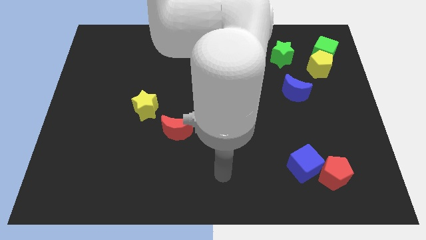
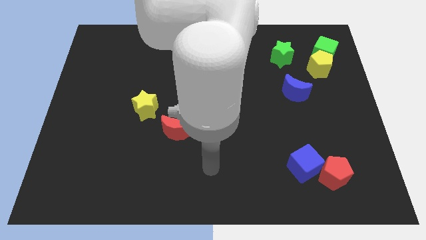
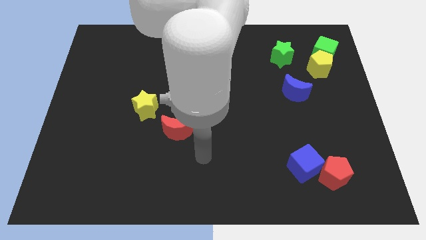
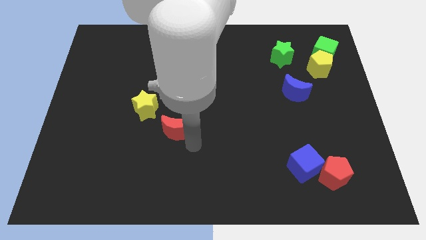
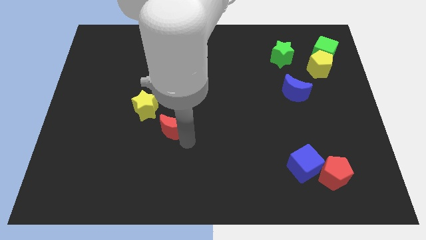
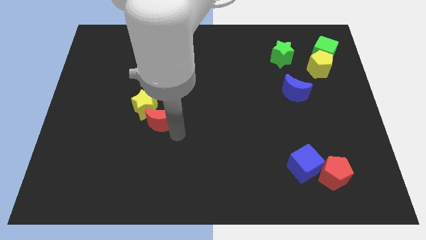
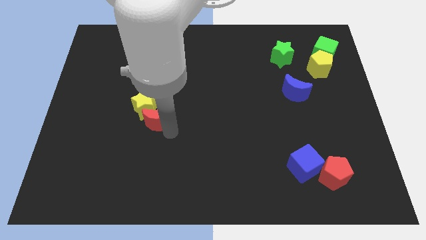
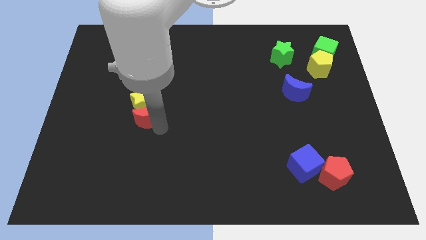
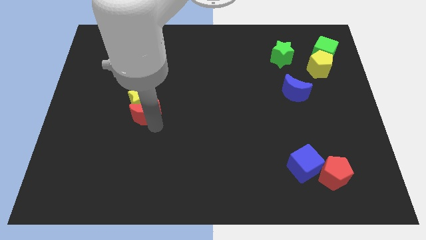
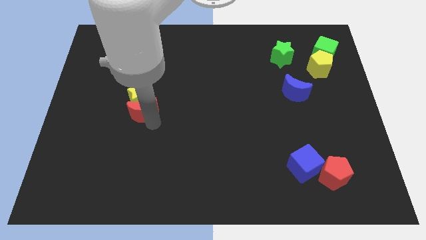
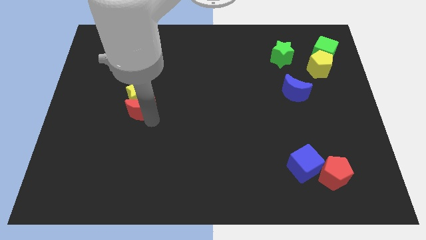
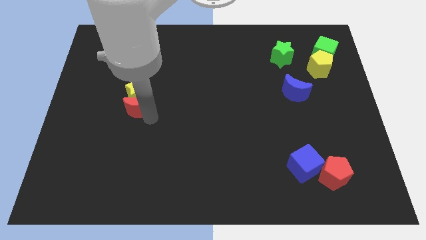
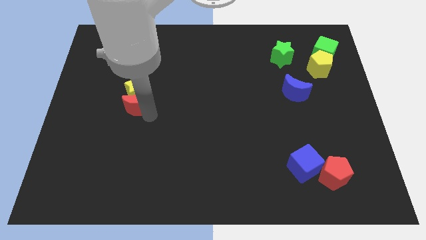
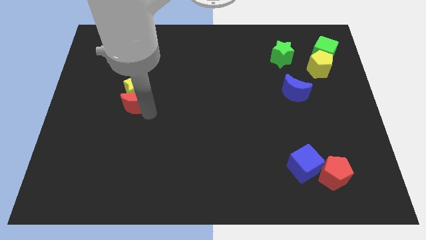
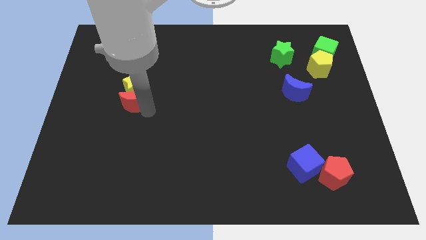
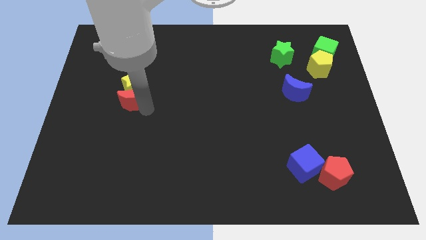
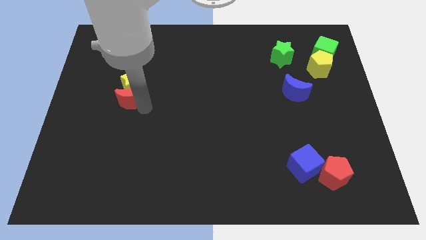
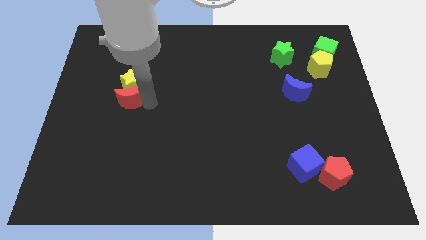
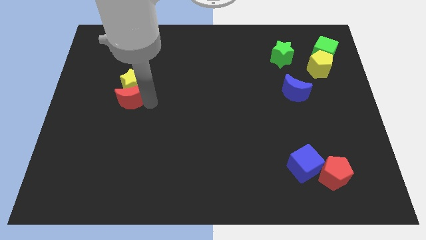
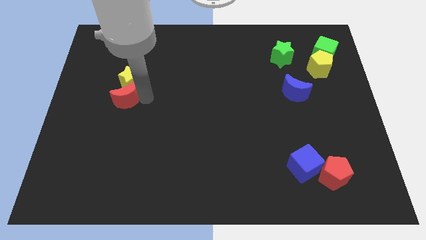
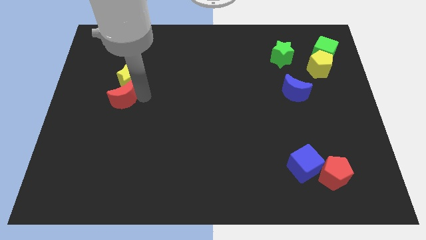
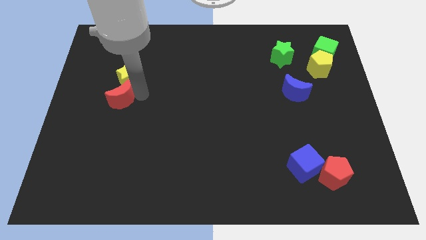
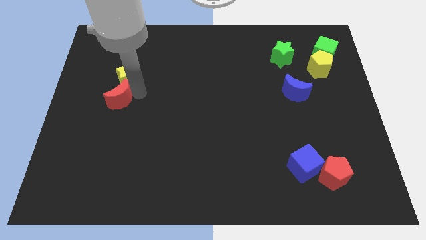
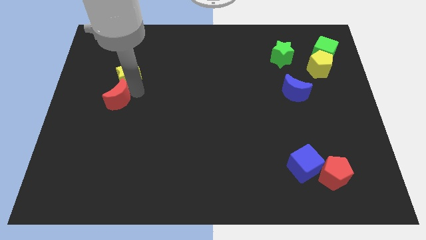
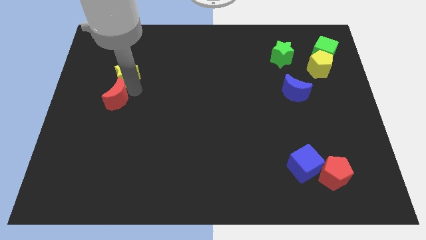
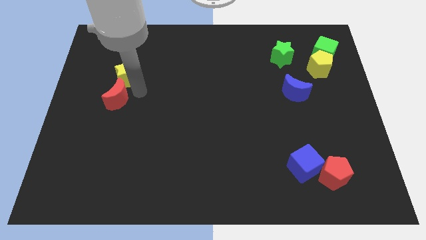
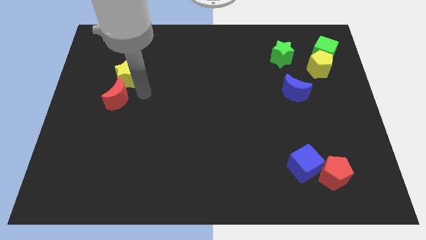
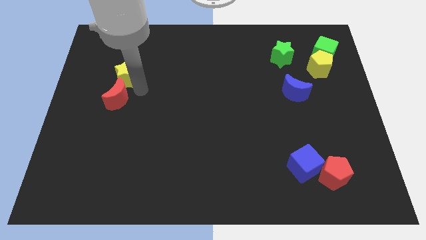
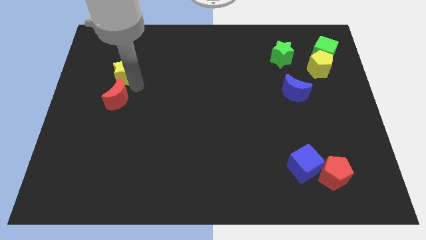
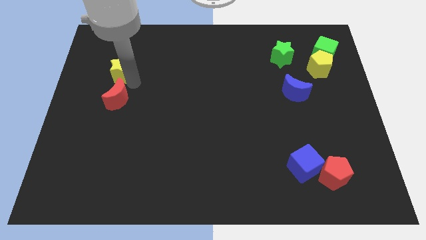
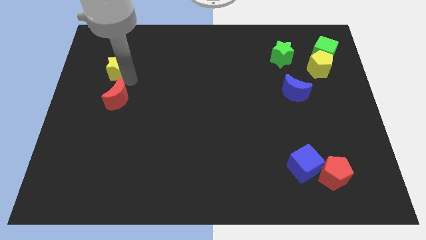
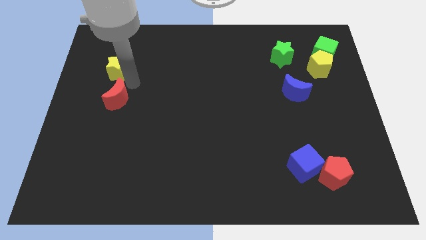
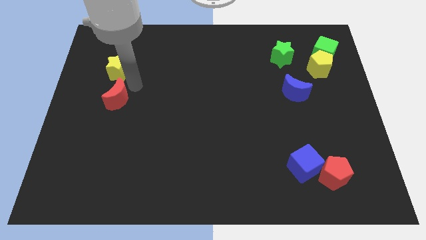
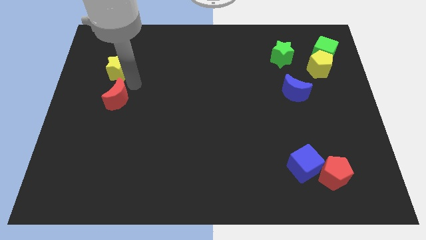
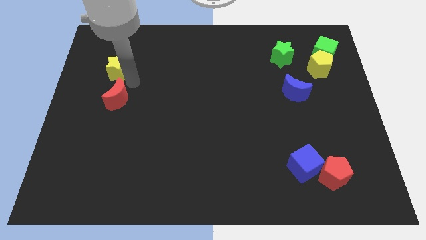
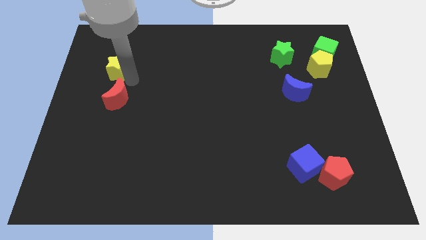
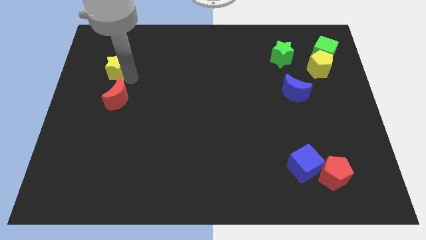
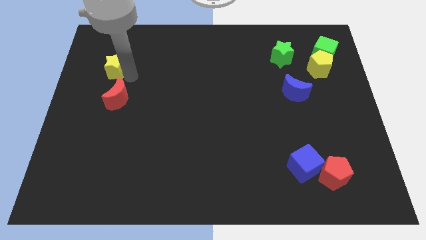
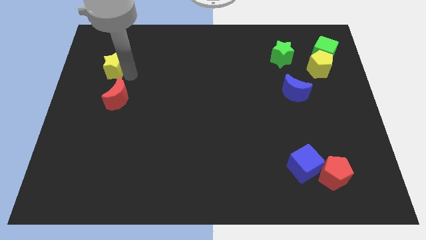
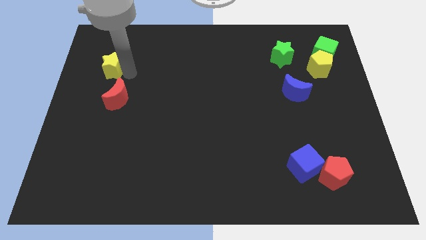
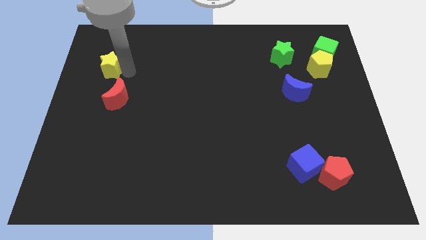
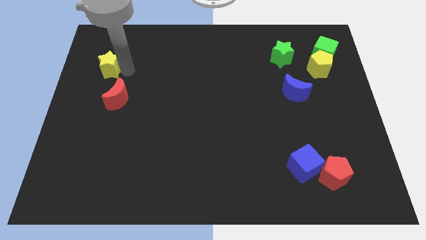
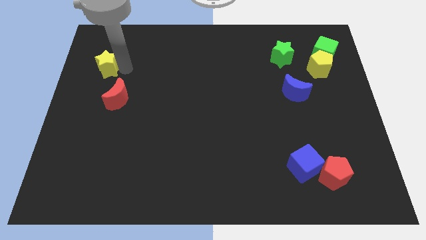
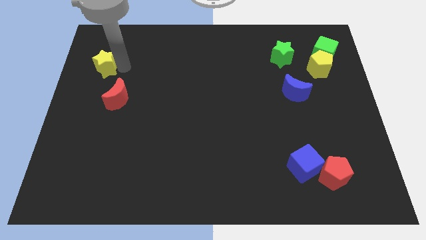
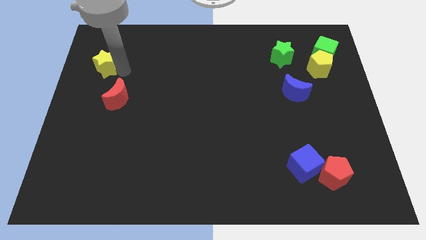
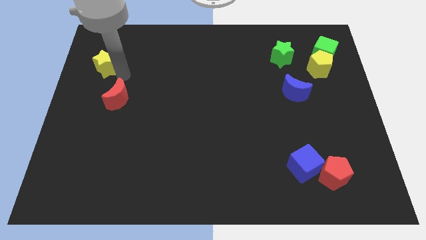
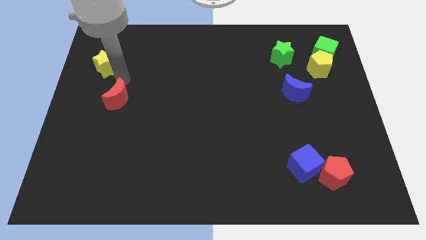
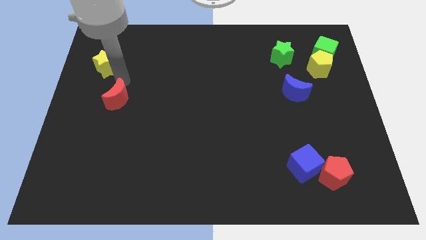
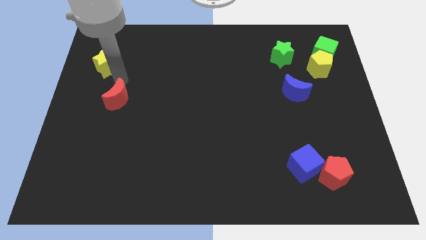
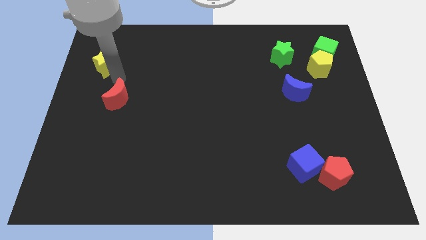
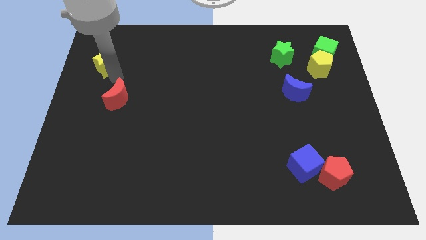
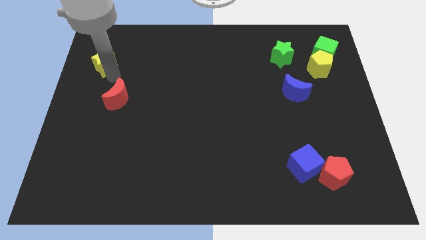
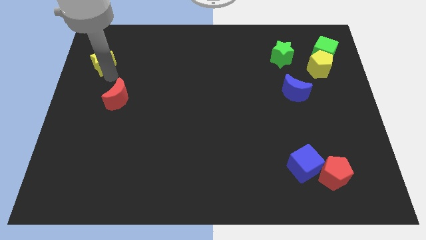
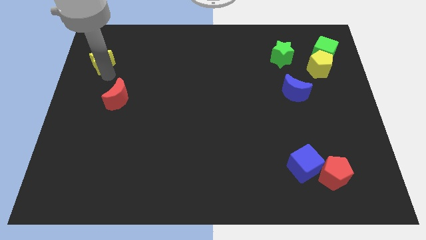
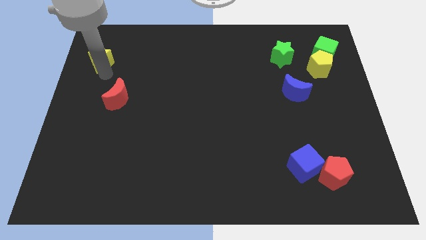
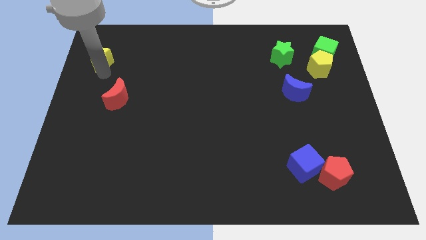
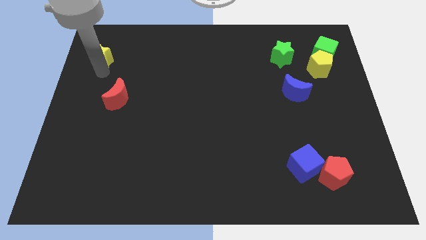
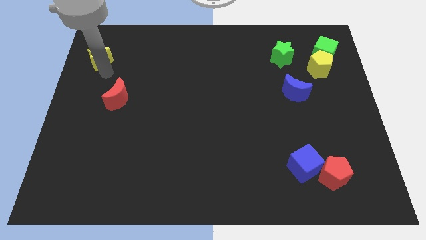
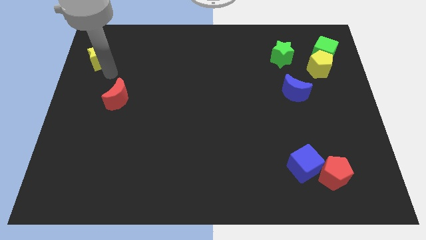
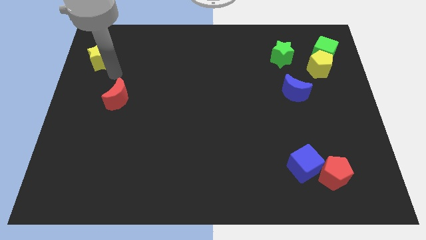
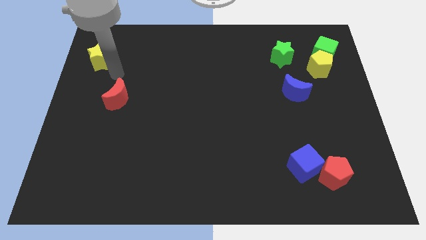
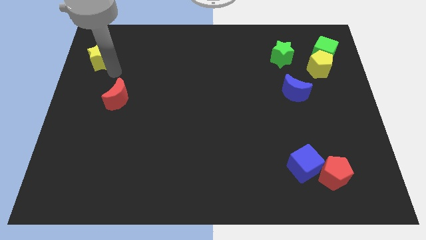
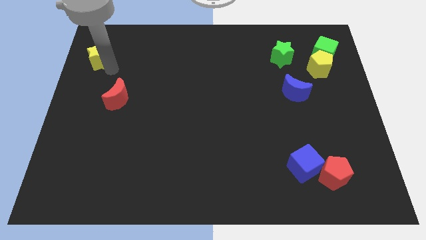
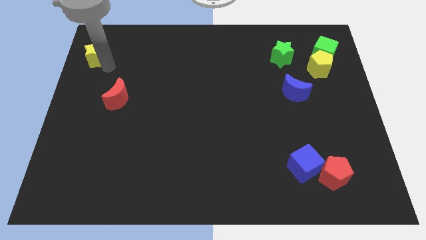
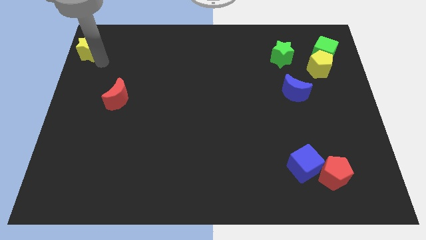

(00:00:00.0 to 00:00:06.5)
slide the yellow star to the top left corner

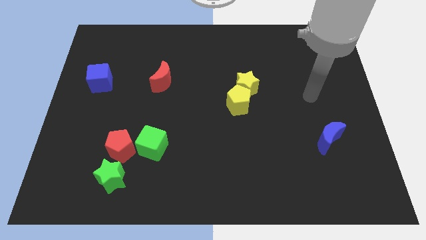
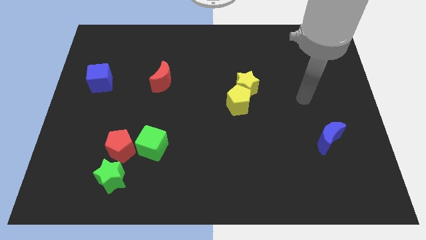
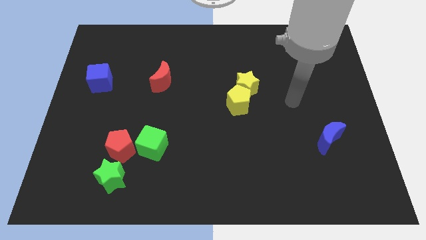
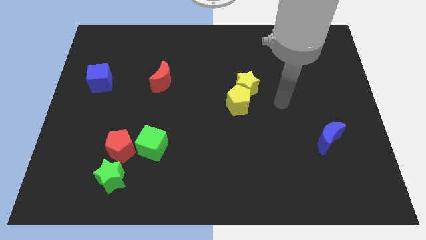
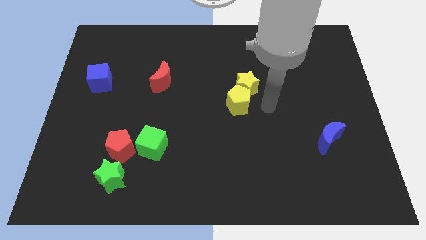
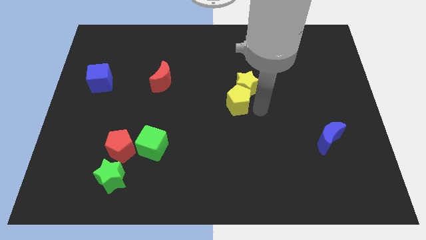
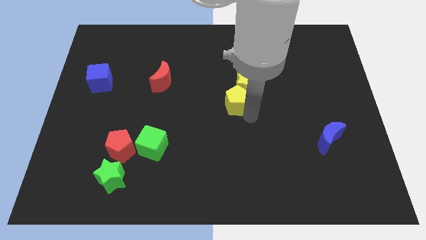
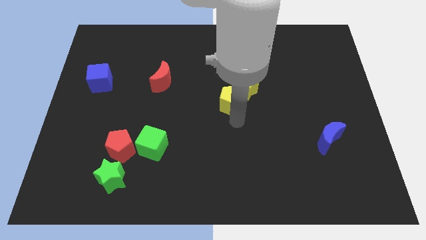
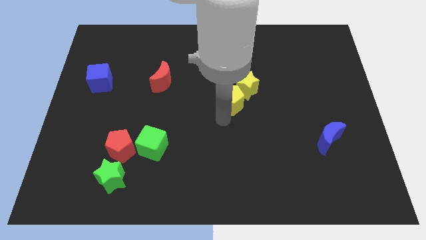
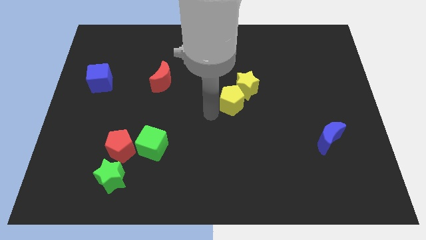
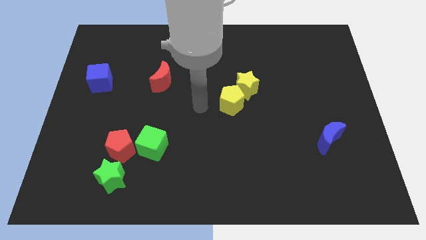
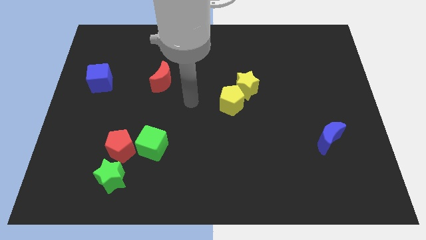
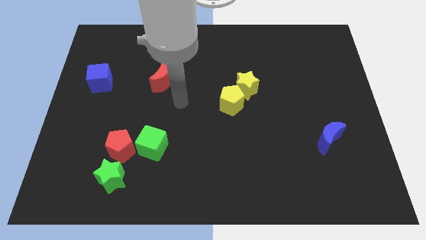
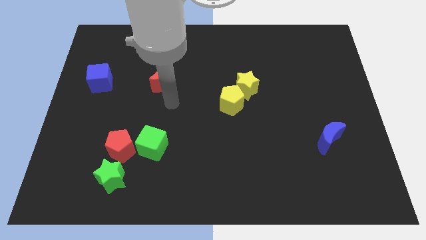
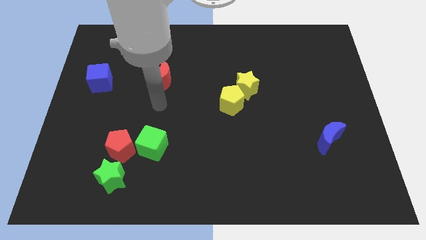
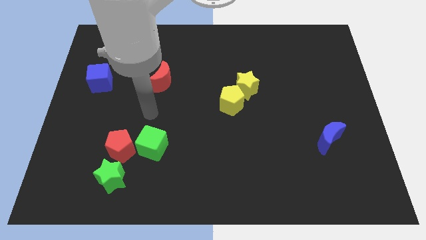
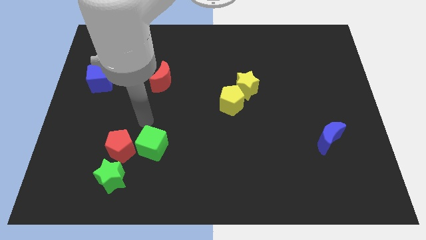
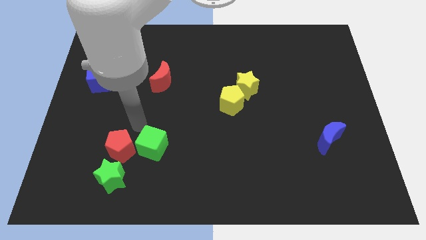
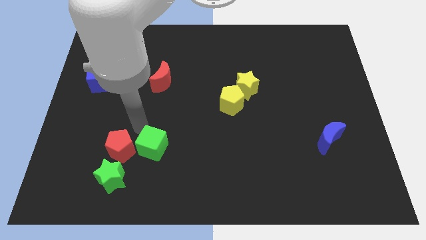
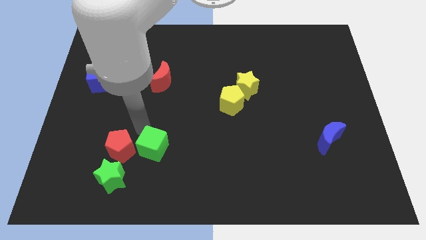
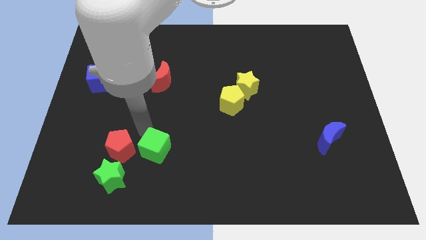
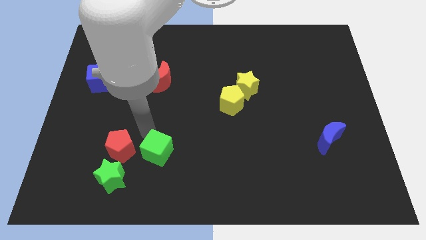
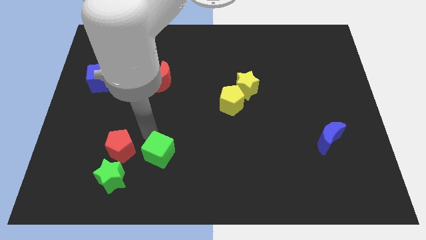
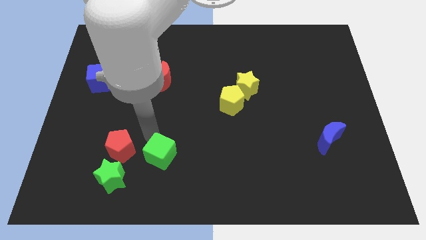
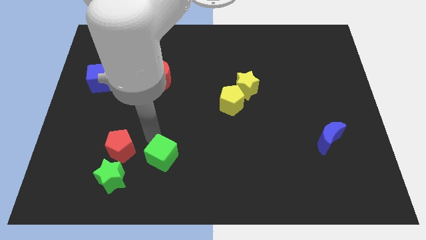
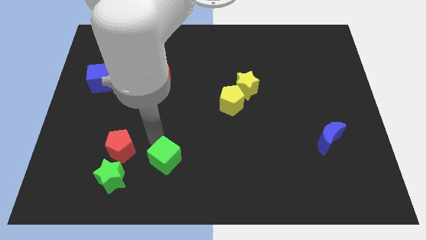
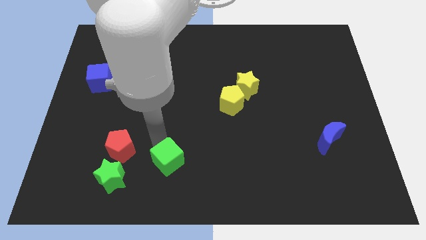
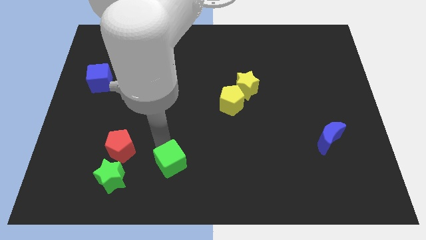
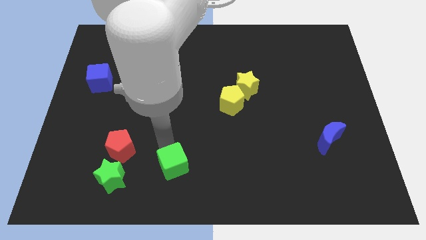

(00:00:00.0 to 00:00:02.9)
slide the green cube to the bottom
